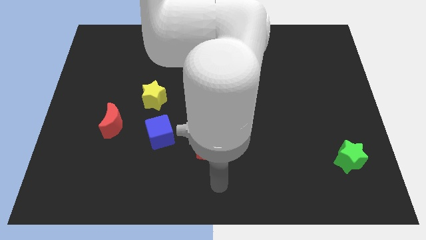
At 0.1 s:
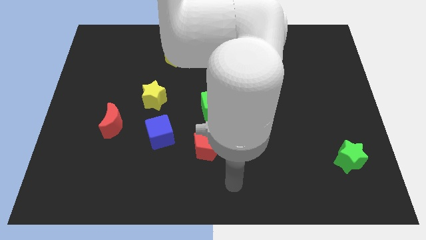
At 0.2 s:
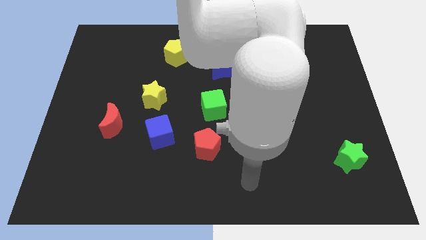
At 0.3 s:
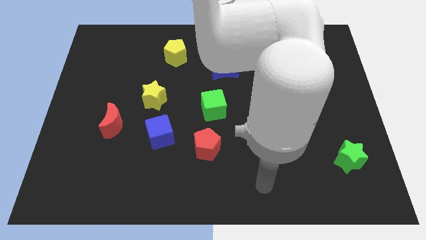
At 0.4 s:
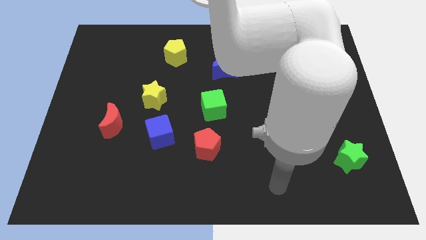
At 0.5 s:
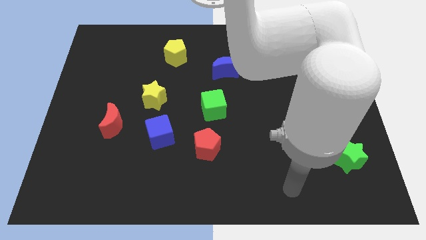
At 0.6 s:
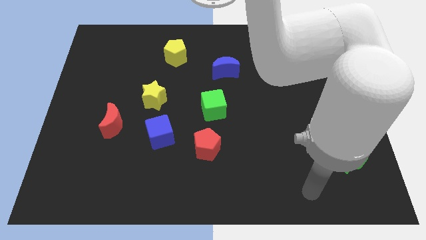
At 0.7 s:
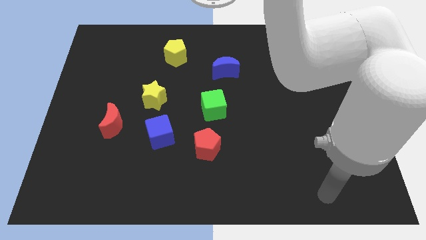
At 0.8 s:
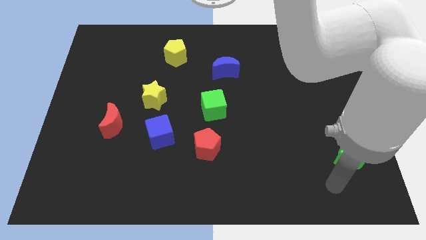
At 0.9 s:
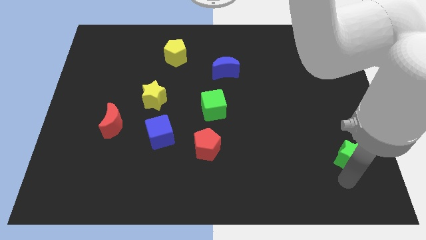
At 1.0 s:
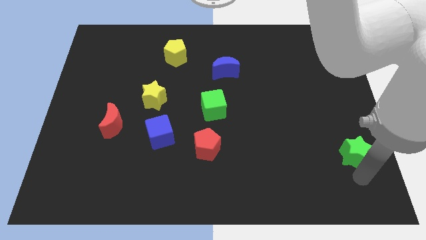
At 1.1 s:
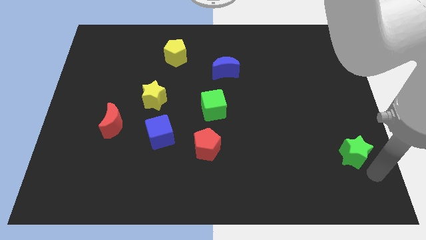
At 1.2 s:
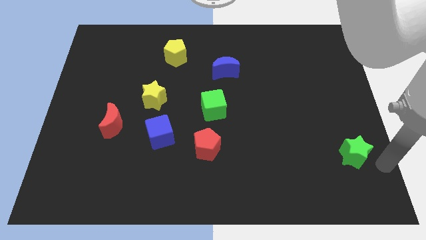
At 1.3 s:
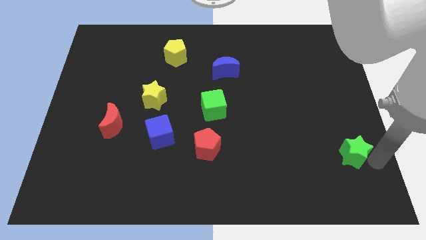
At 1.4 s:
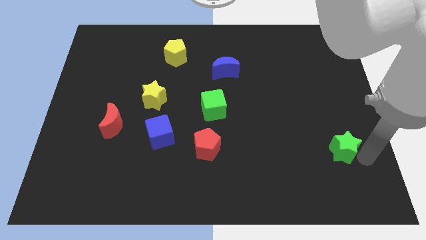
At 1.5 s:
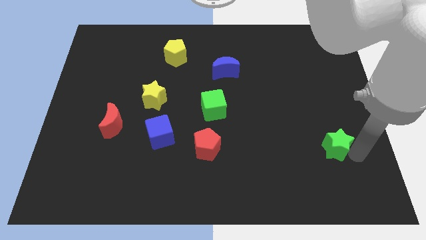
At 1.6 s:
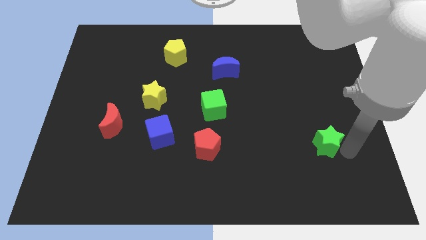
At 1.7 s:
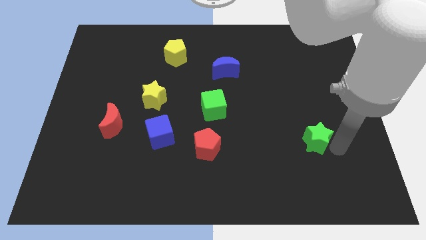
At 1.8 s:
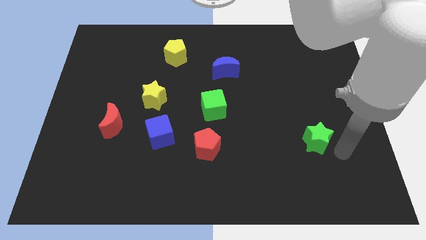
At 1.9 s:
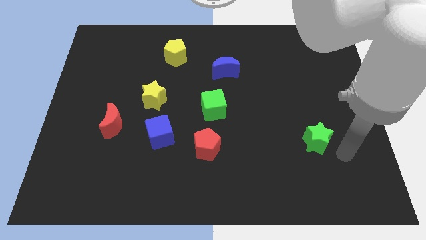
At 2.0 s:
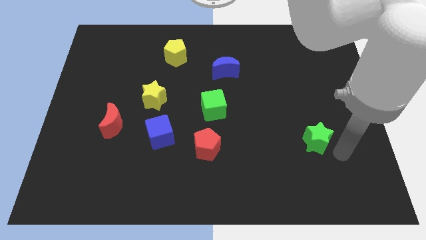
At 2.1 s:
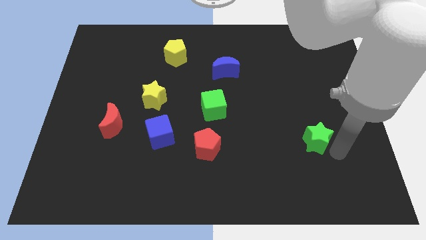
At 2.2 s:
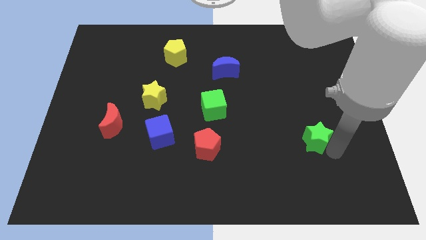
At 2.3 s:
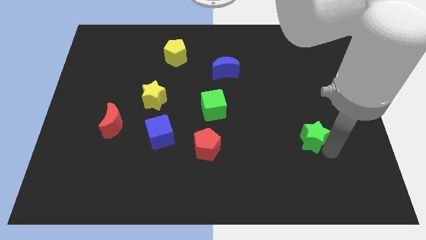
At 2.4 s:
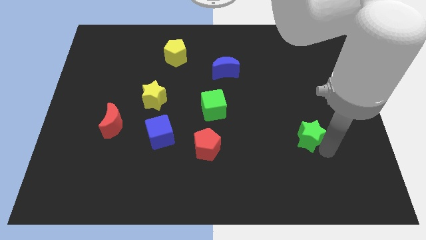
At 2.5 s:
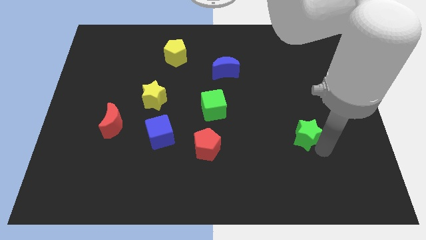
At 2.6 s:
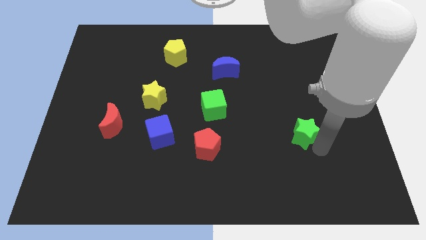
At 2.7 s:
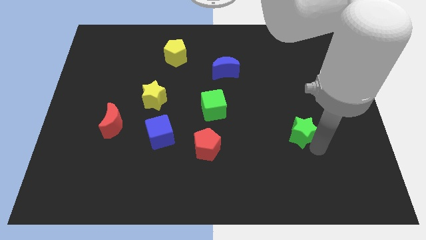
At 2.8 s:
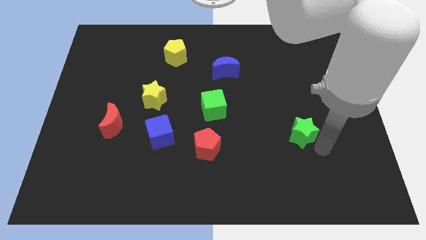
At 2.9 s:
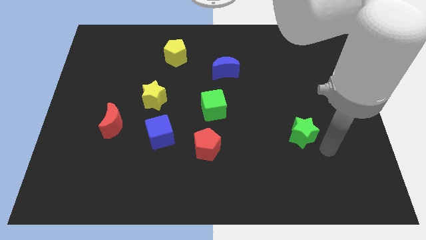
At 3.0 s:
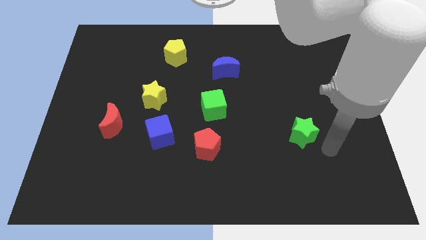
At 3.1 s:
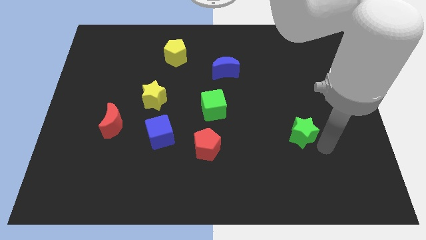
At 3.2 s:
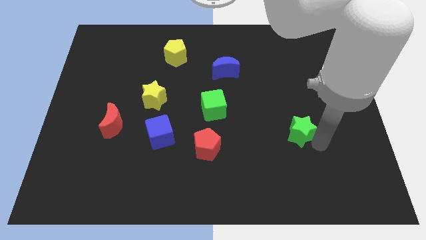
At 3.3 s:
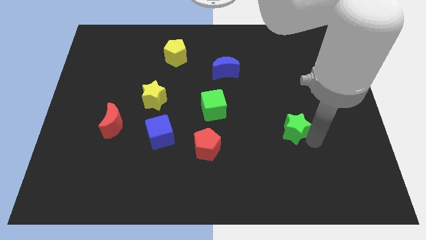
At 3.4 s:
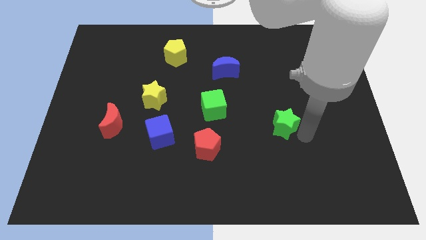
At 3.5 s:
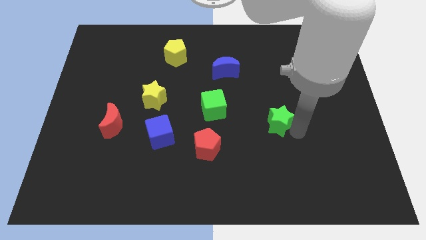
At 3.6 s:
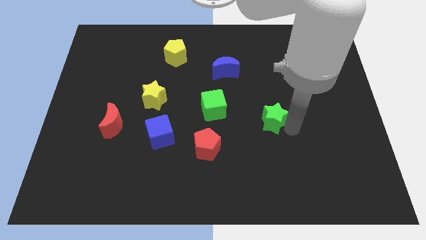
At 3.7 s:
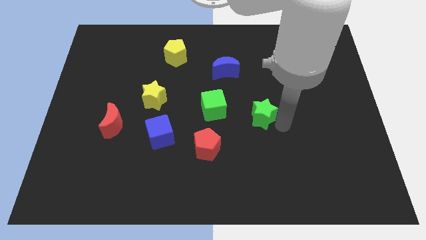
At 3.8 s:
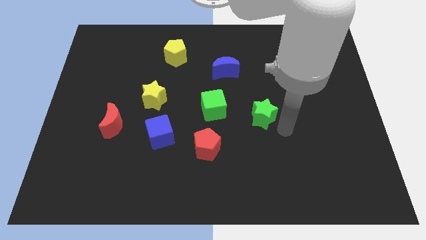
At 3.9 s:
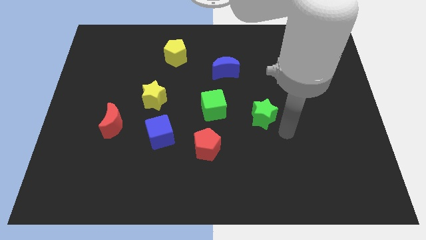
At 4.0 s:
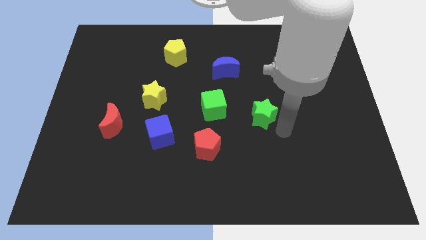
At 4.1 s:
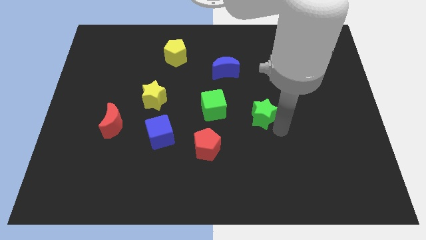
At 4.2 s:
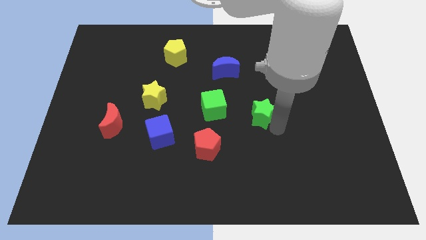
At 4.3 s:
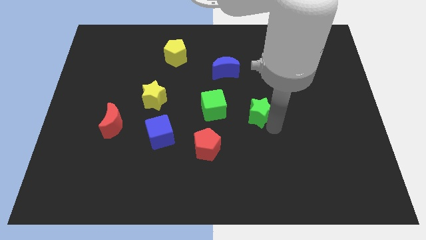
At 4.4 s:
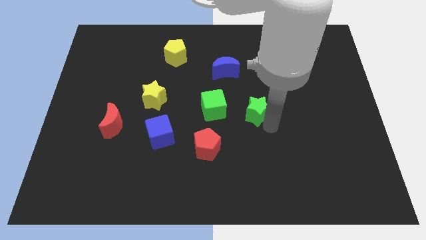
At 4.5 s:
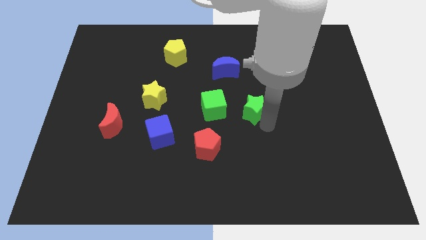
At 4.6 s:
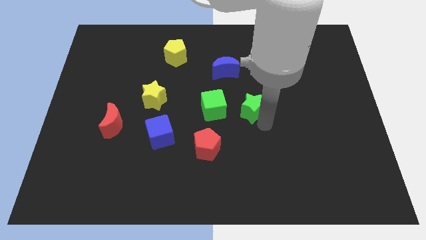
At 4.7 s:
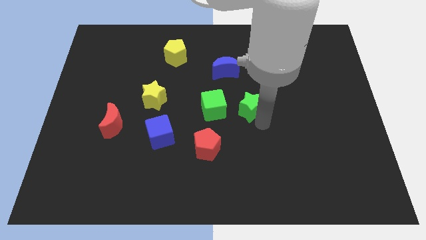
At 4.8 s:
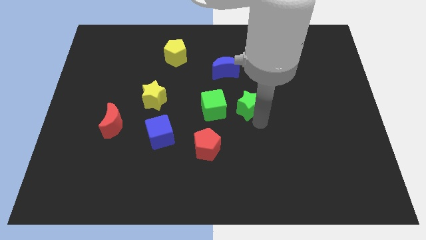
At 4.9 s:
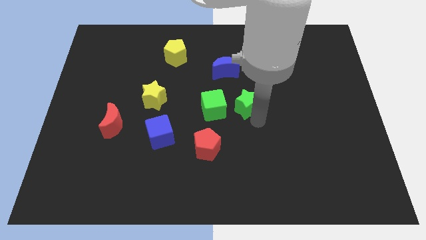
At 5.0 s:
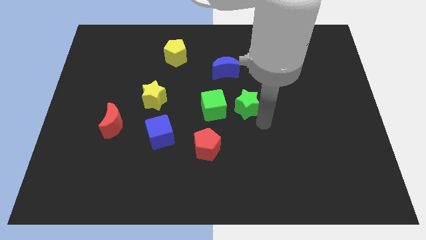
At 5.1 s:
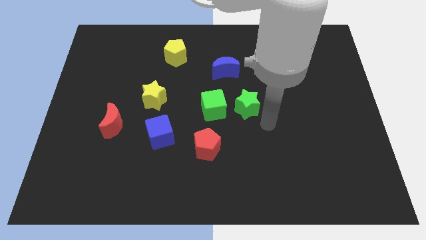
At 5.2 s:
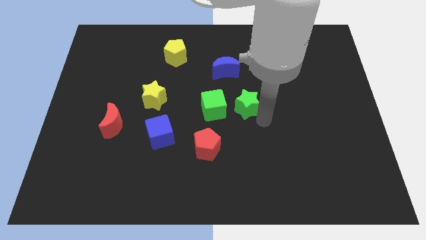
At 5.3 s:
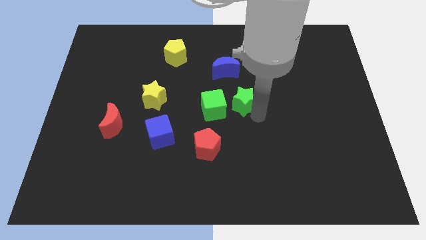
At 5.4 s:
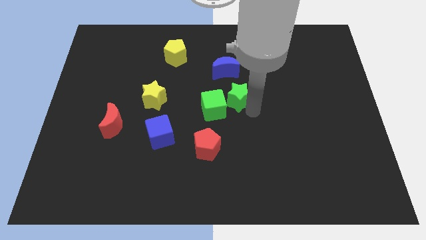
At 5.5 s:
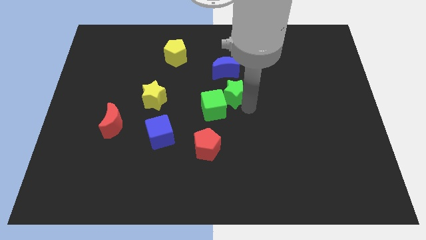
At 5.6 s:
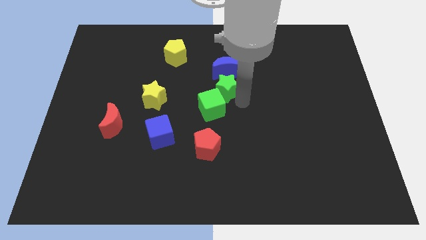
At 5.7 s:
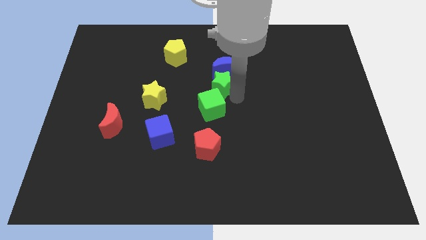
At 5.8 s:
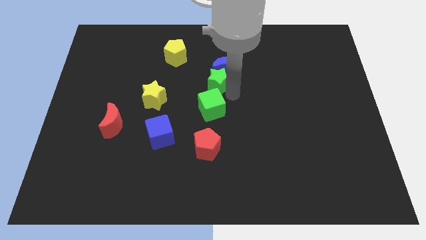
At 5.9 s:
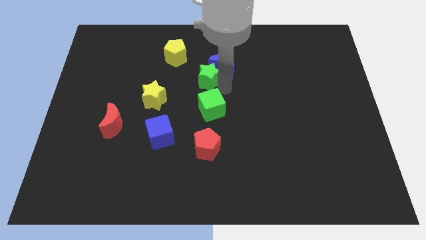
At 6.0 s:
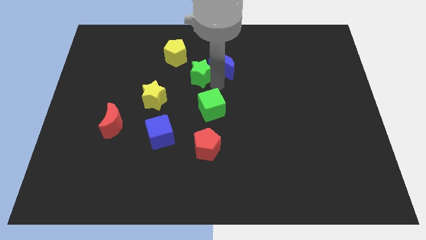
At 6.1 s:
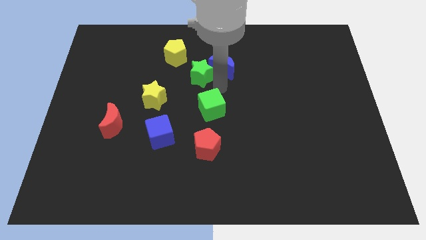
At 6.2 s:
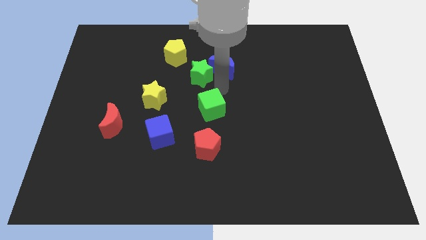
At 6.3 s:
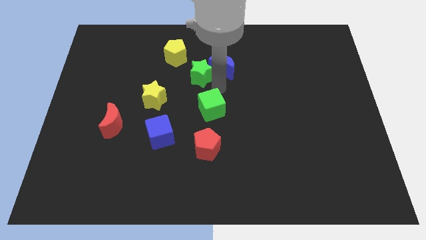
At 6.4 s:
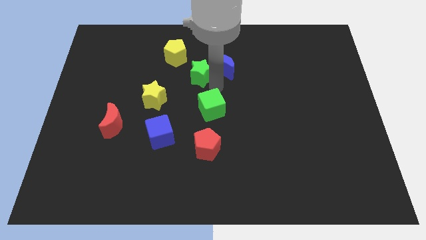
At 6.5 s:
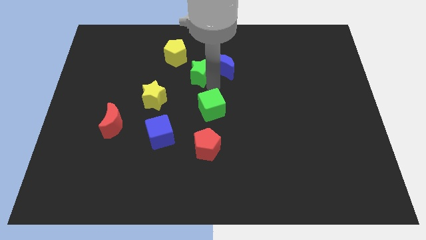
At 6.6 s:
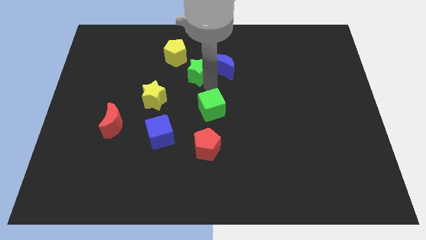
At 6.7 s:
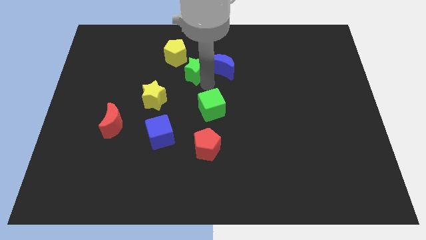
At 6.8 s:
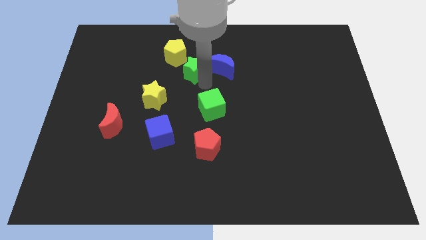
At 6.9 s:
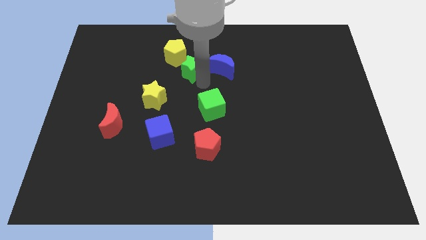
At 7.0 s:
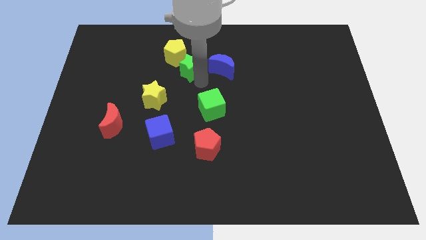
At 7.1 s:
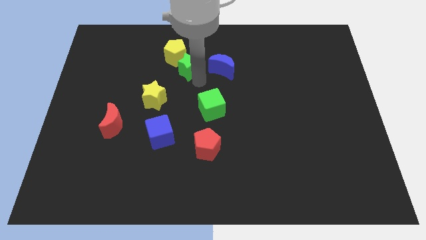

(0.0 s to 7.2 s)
push the green star next to the yellow pentagon
